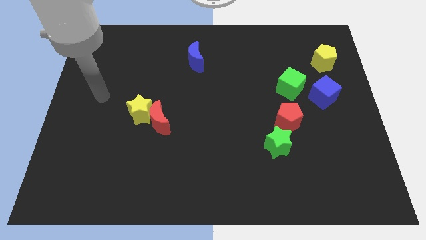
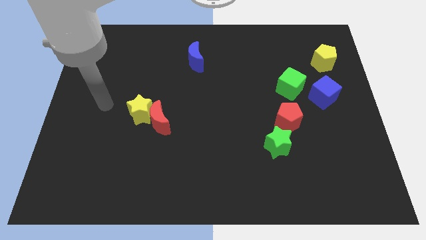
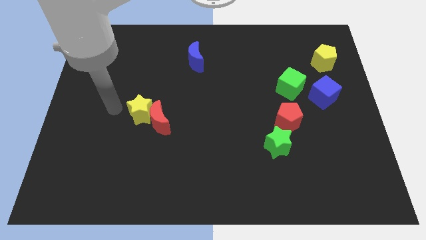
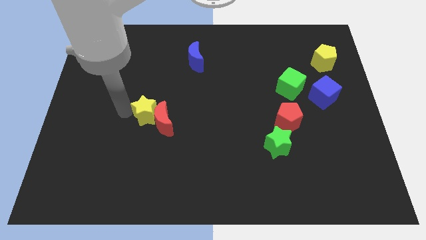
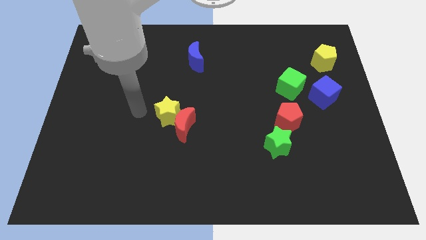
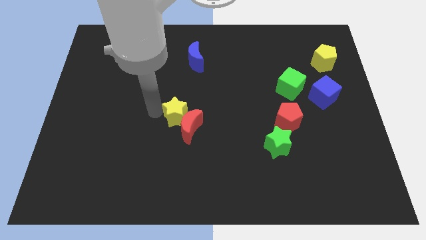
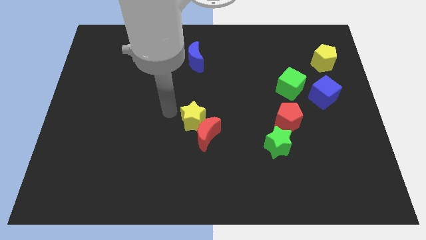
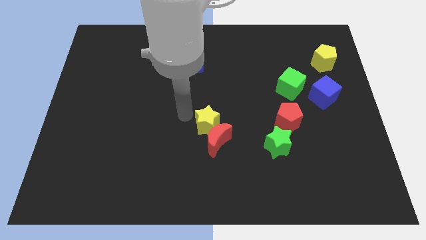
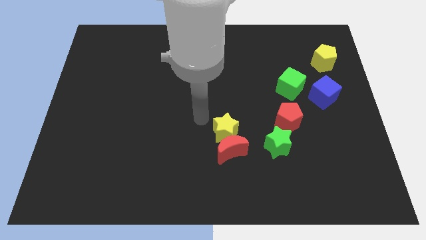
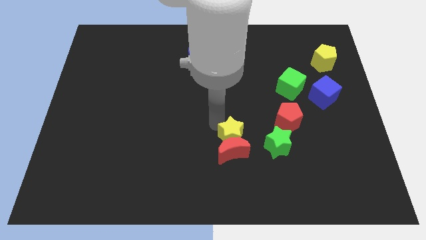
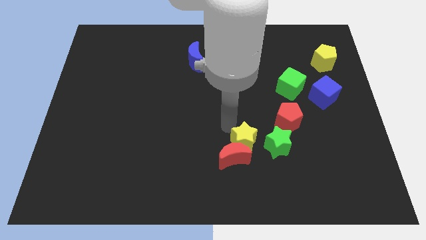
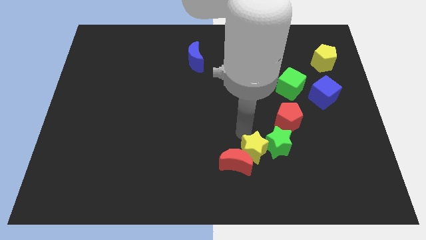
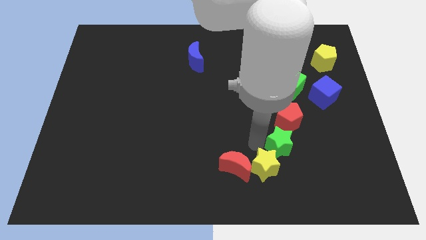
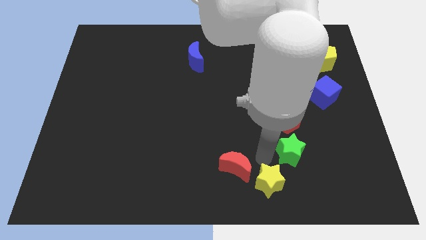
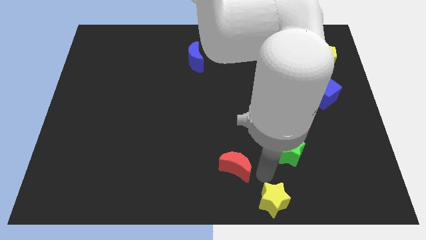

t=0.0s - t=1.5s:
separate the red moon from the yellow star

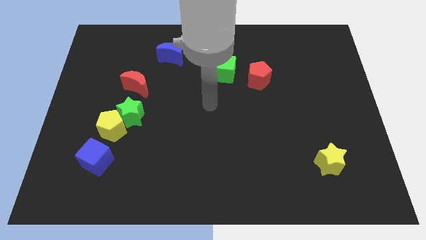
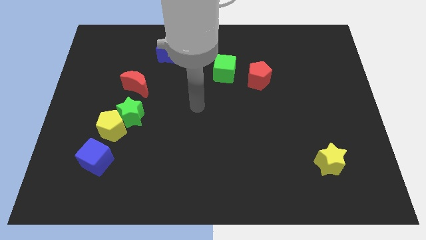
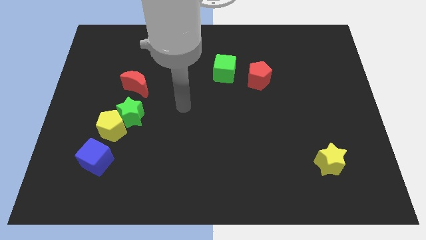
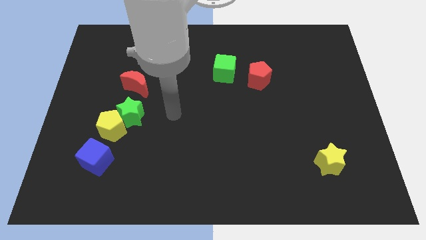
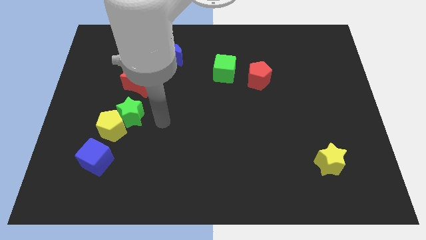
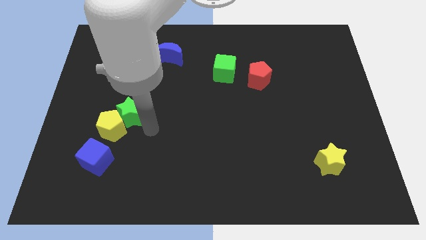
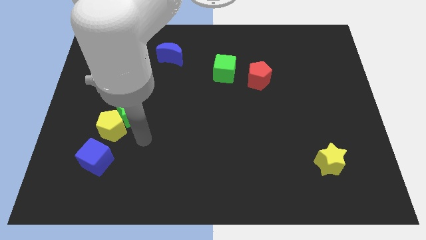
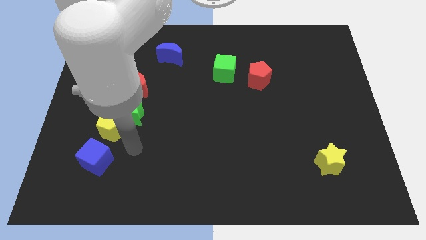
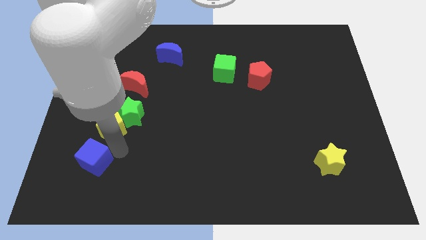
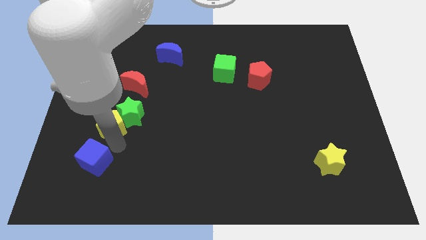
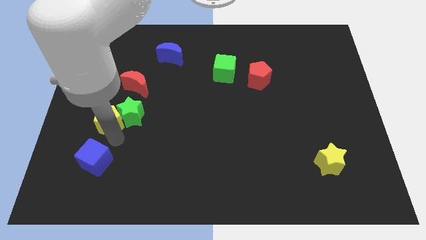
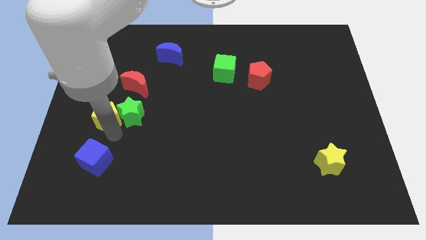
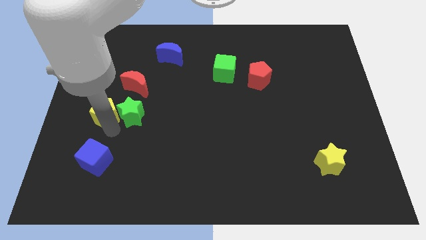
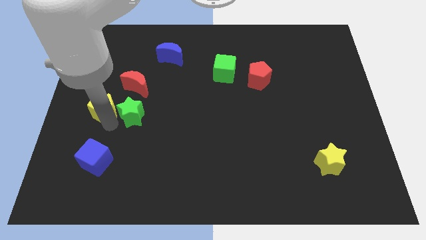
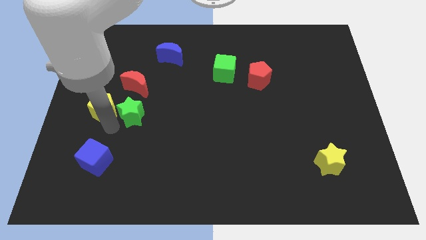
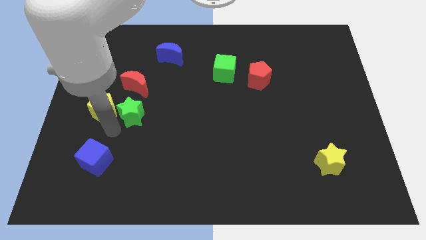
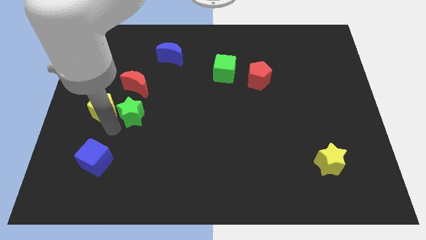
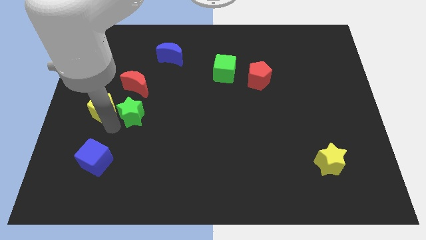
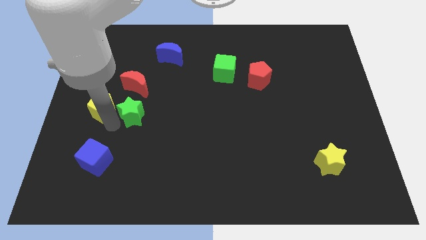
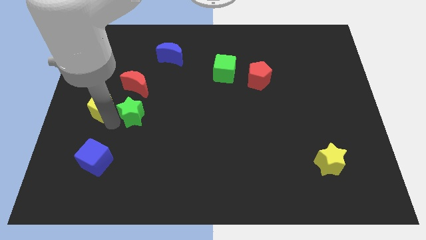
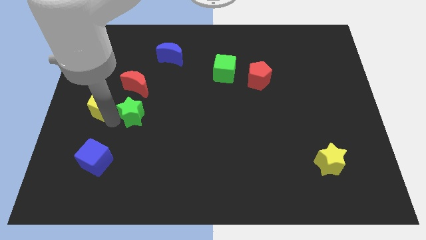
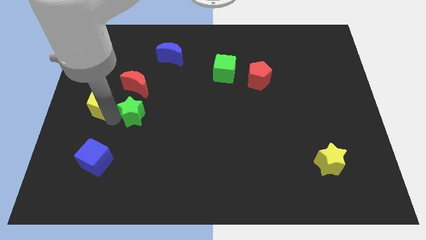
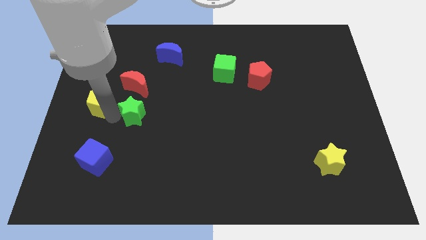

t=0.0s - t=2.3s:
separate the yellow pentagon from the green star and blue cube

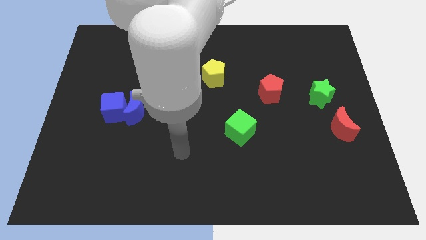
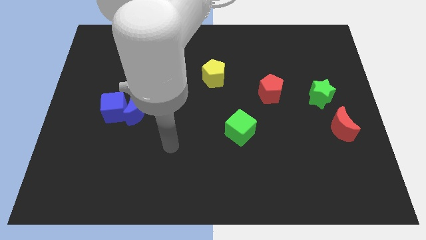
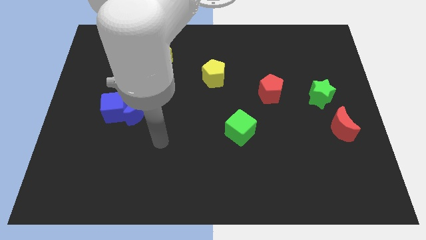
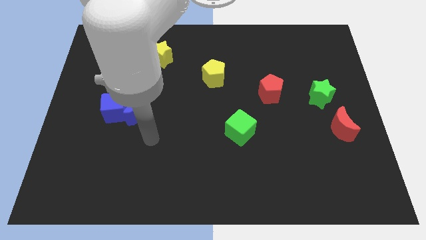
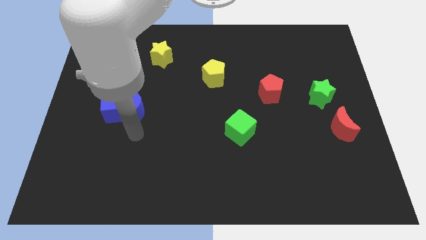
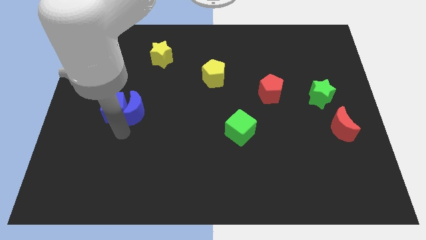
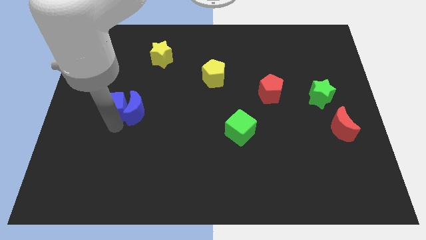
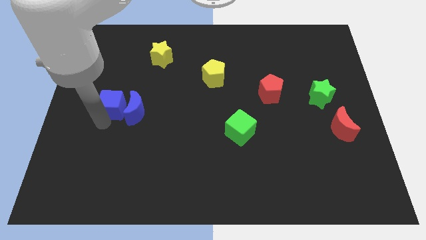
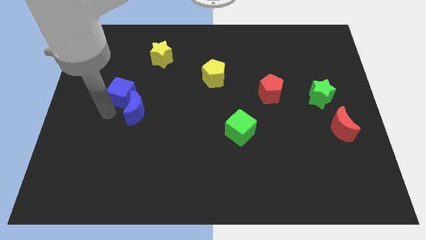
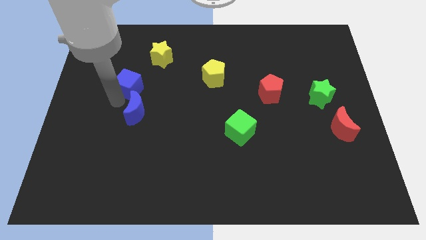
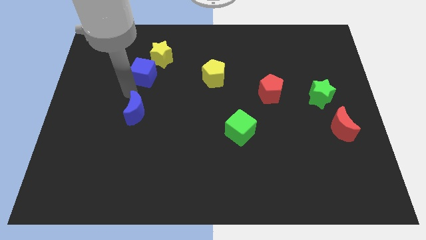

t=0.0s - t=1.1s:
move the blue moon away from the blue cube

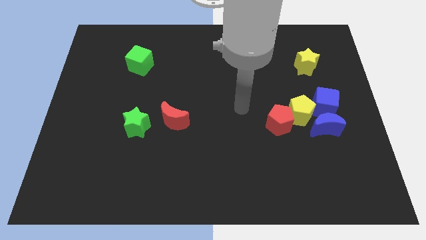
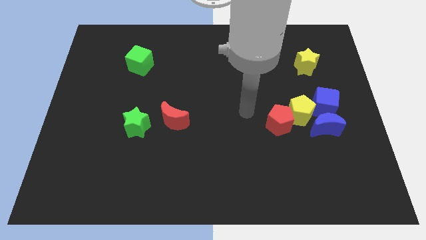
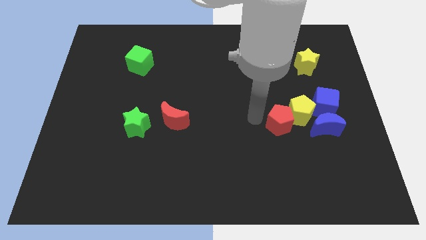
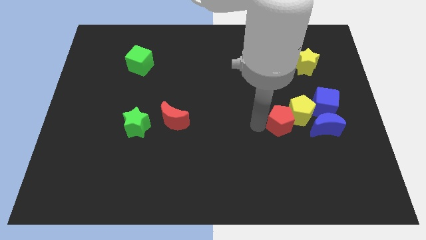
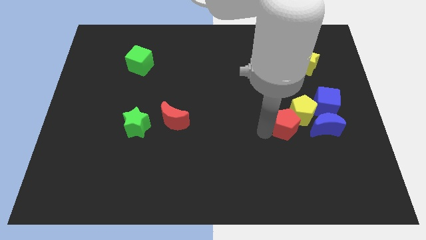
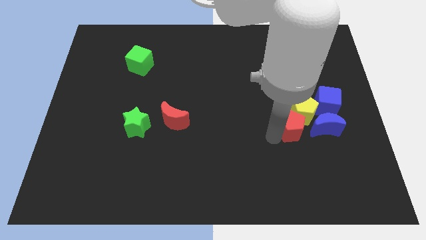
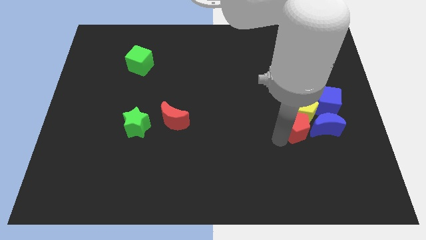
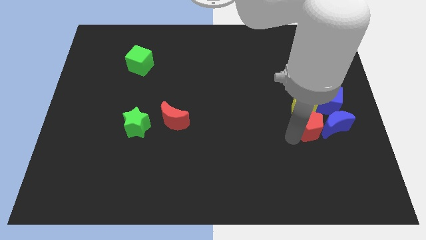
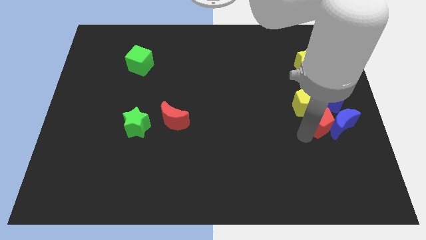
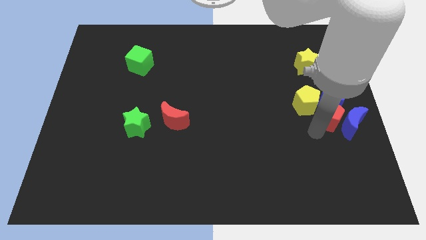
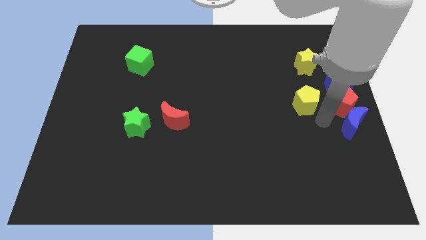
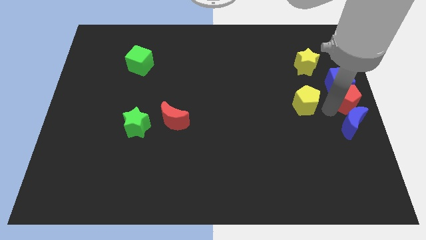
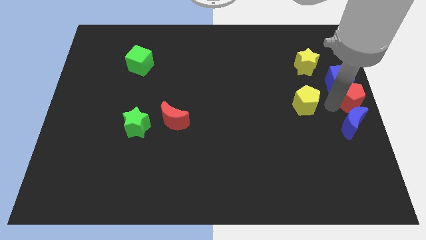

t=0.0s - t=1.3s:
pull the yellow pentagon apart from the group

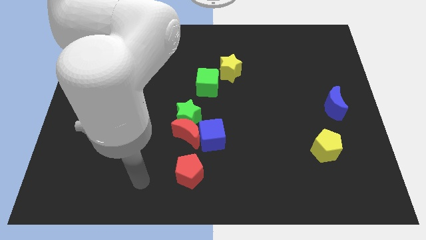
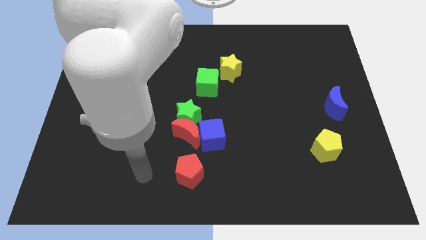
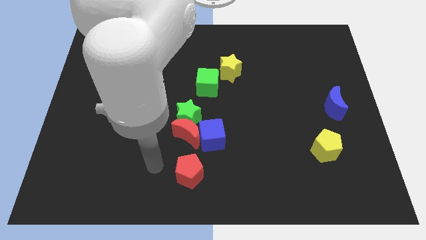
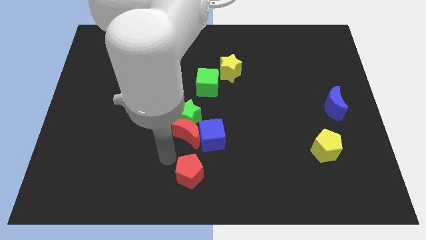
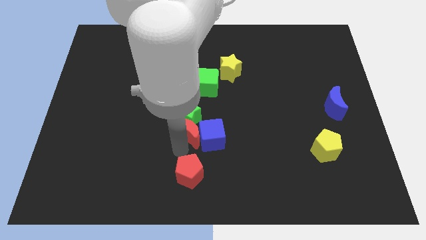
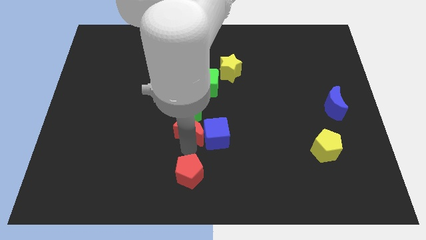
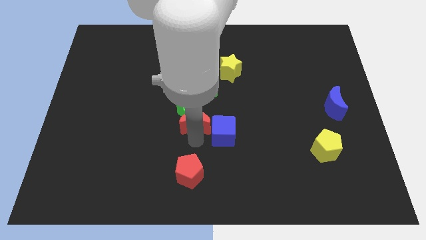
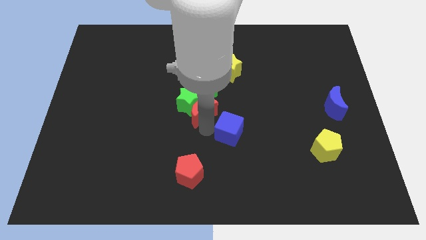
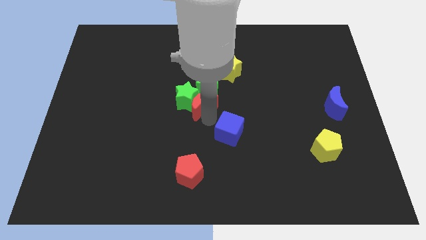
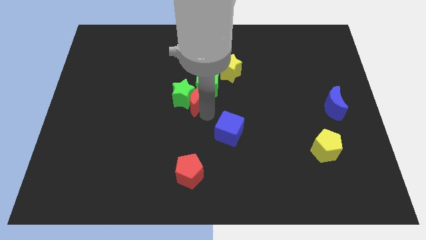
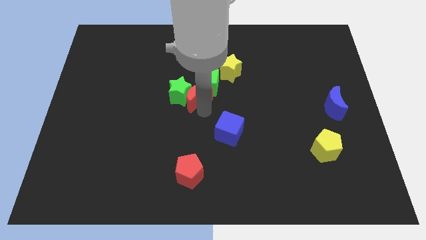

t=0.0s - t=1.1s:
separate the green star from the red moon and blue cube

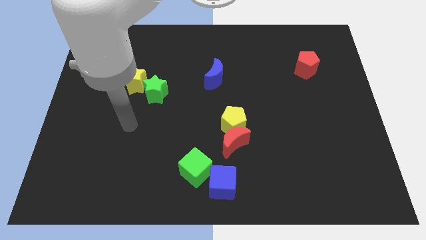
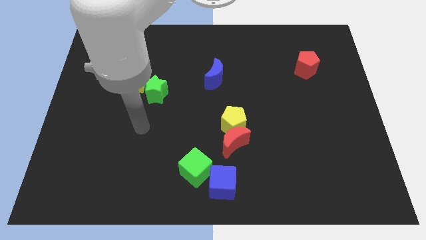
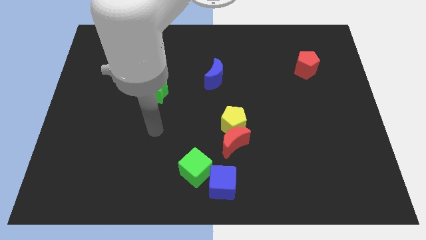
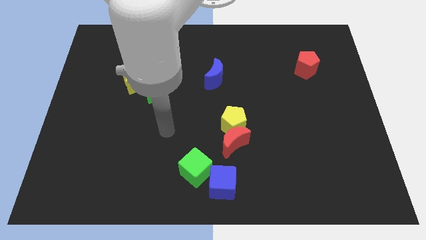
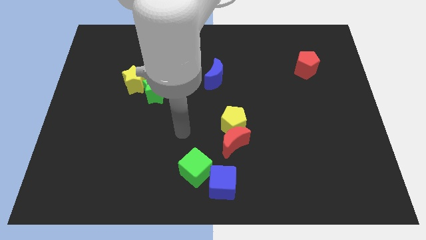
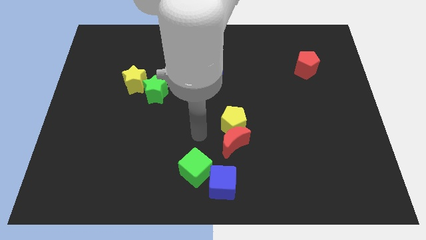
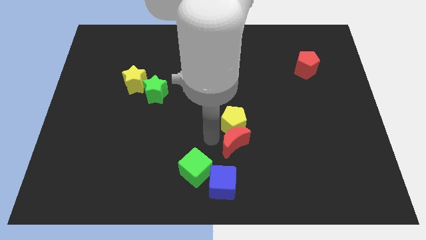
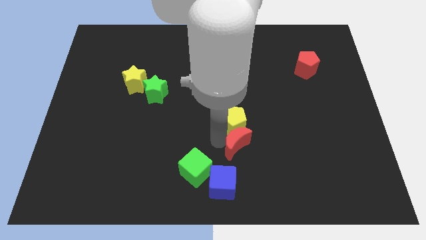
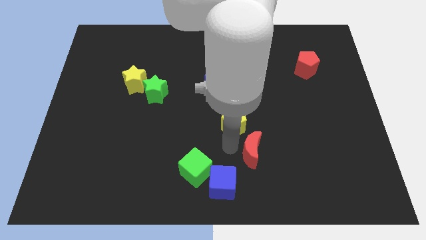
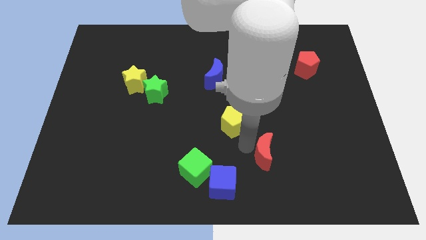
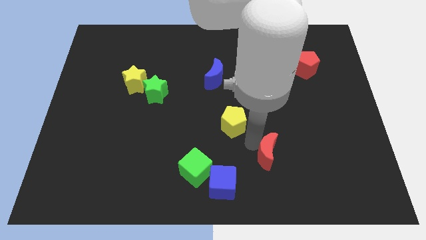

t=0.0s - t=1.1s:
move the yellow pentagon away from the red moon

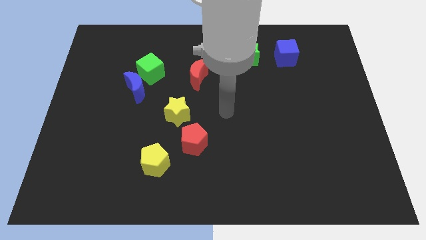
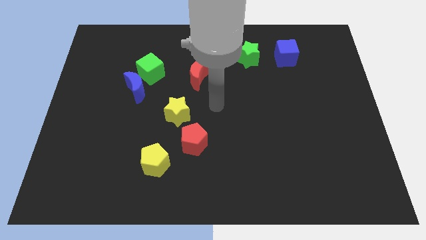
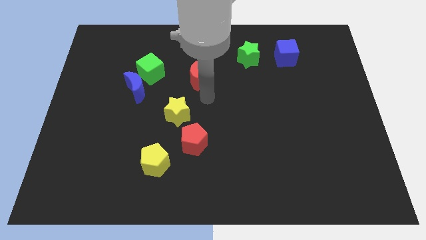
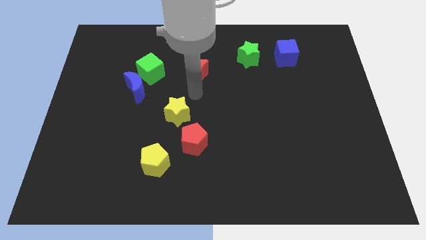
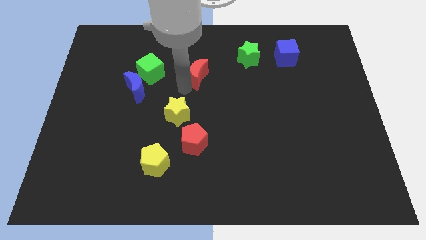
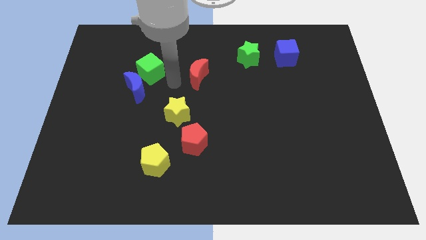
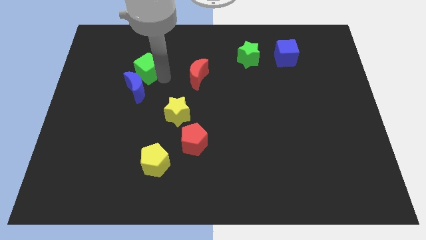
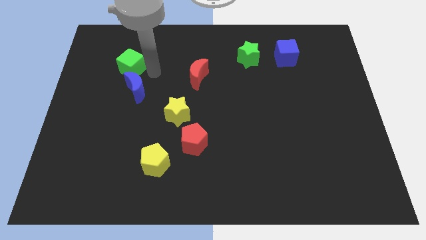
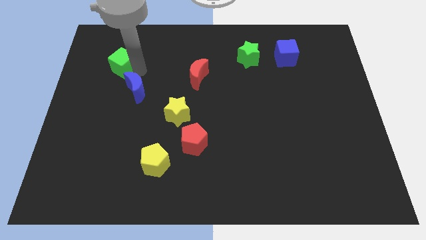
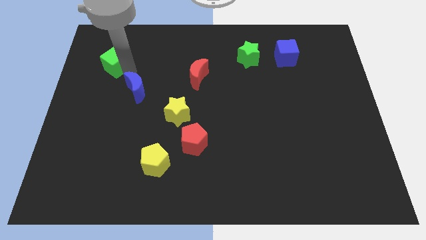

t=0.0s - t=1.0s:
pull the blue moon apart from the green cube
